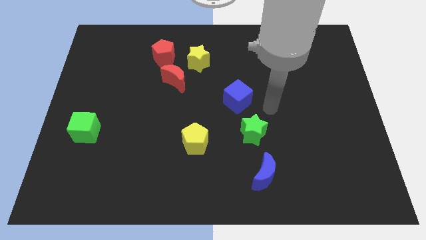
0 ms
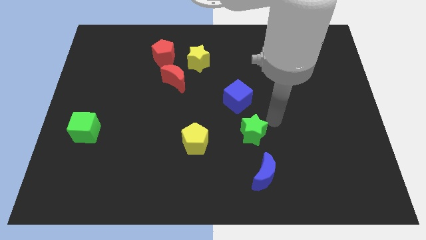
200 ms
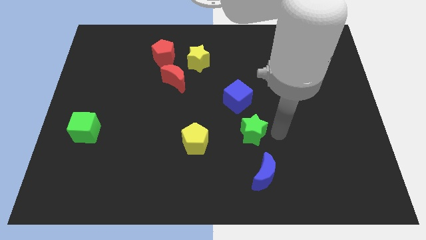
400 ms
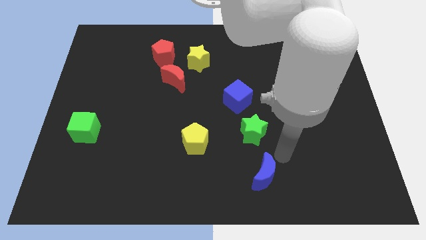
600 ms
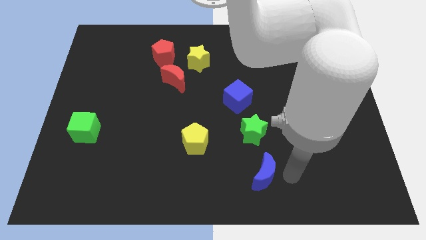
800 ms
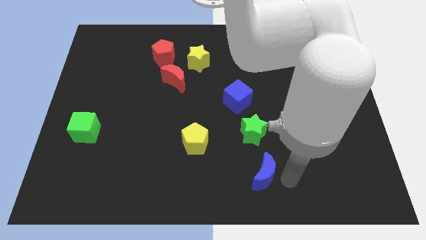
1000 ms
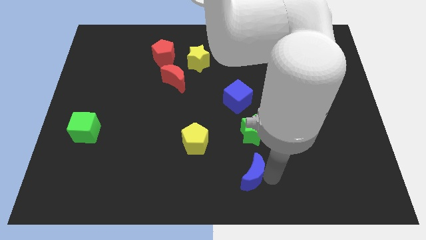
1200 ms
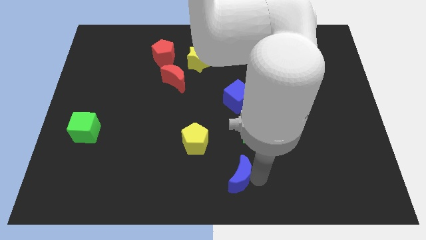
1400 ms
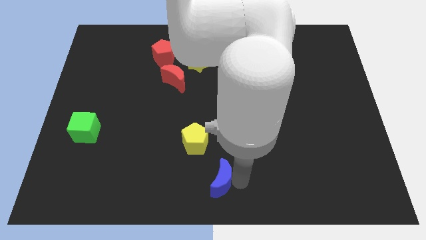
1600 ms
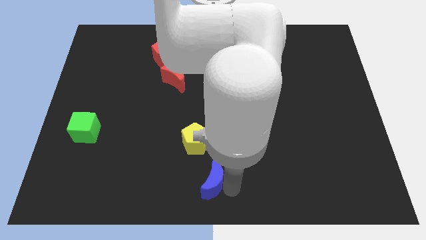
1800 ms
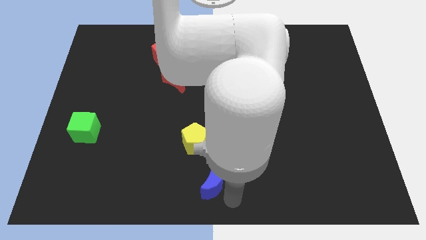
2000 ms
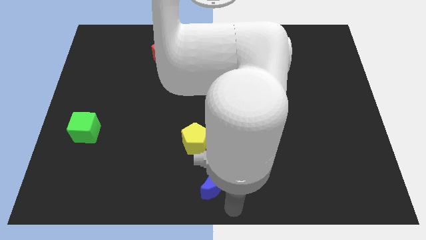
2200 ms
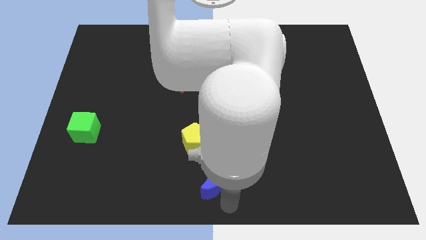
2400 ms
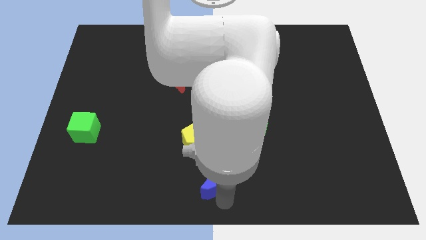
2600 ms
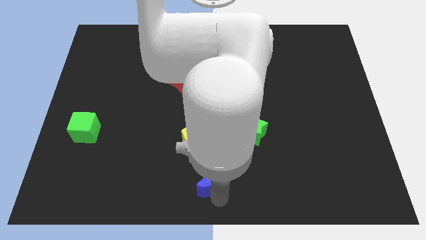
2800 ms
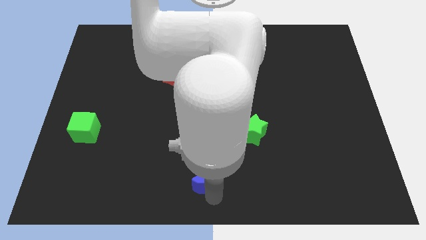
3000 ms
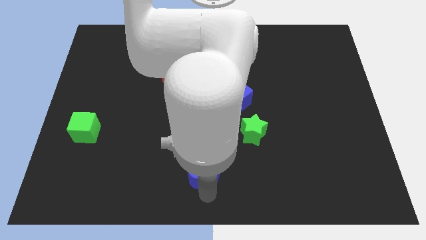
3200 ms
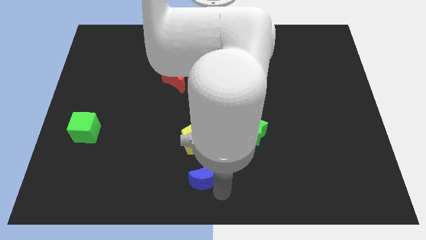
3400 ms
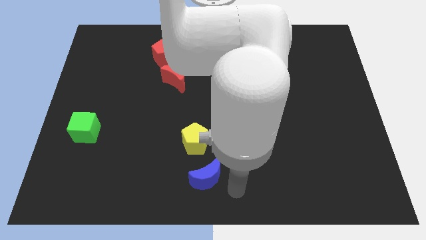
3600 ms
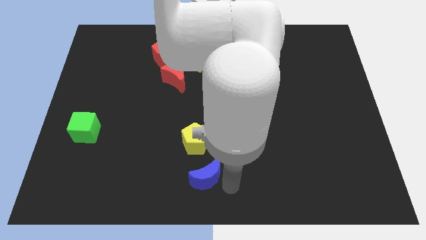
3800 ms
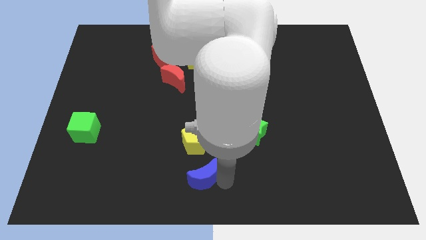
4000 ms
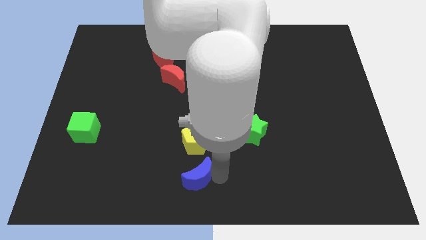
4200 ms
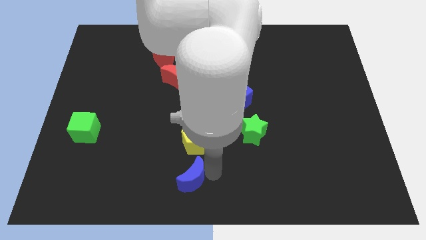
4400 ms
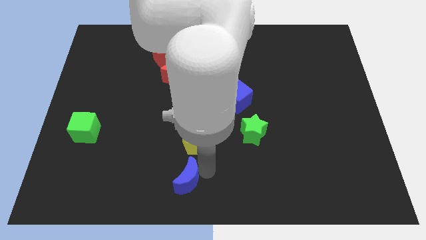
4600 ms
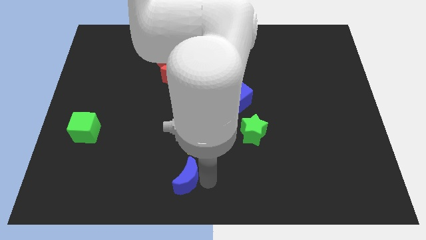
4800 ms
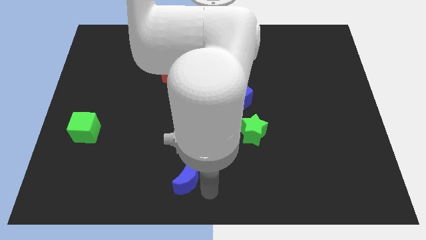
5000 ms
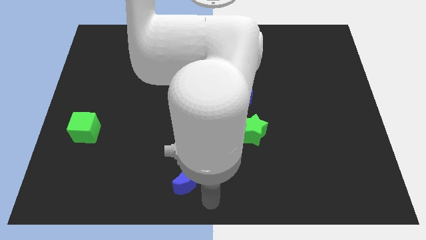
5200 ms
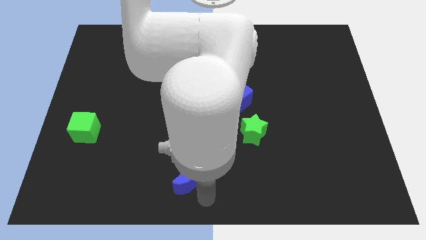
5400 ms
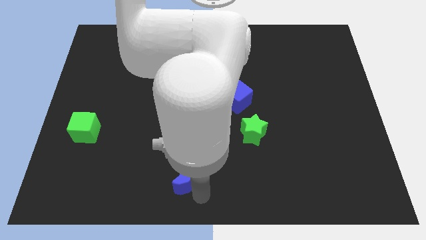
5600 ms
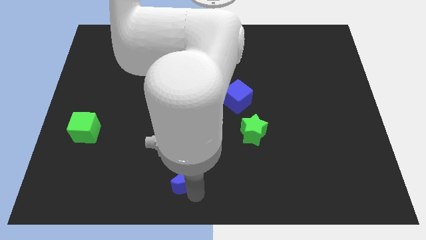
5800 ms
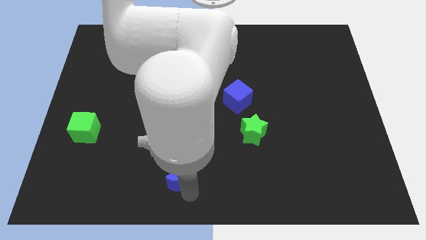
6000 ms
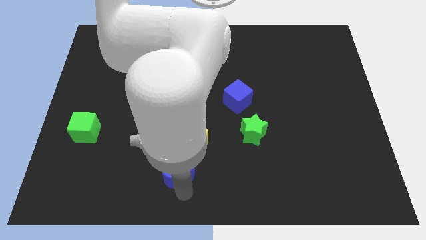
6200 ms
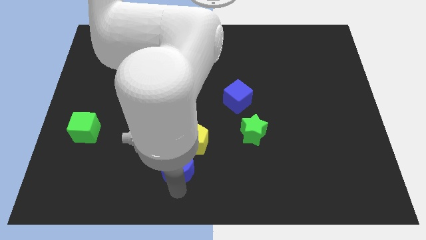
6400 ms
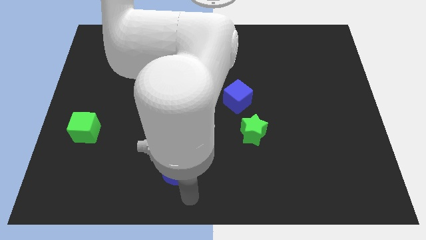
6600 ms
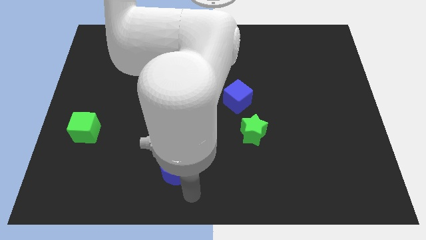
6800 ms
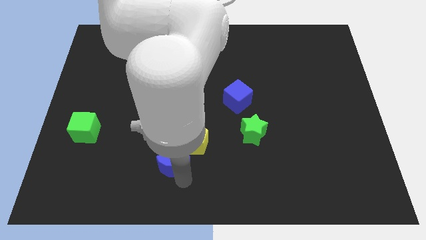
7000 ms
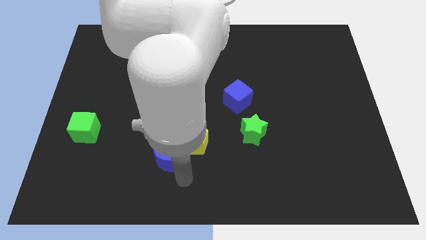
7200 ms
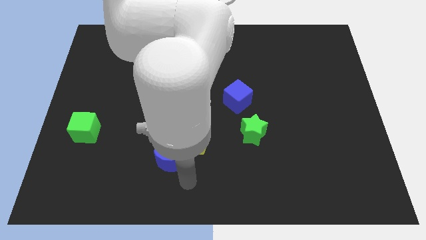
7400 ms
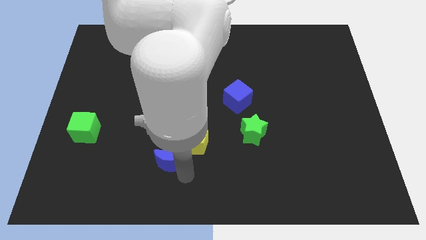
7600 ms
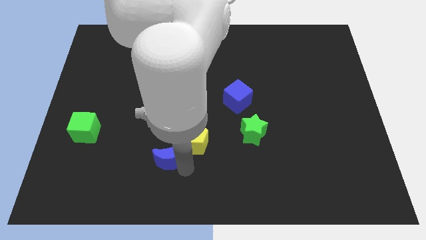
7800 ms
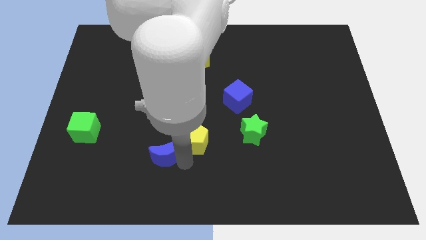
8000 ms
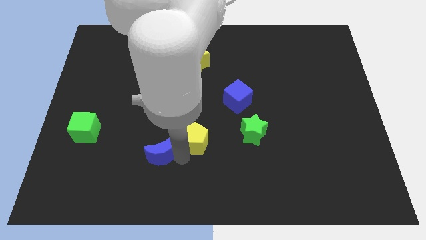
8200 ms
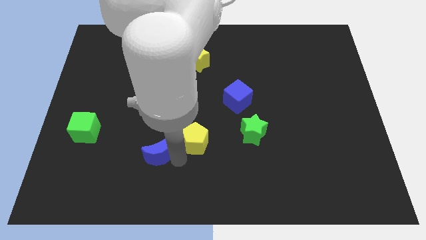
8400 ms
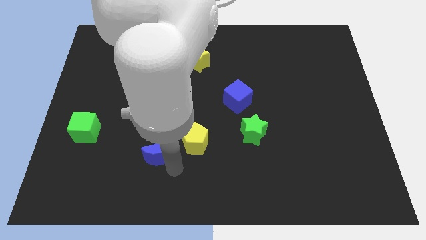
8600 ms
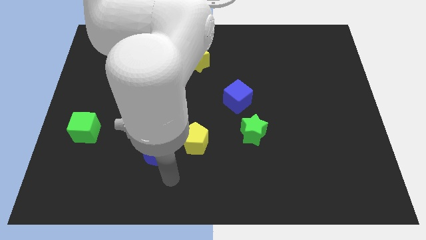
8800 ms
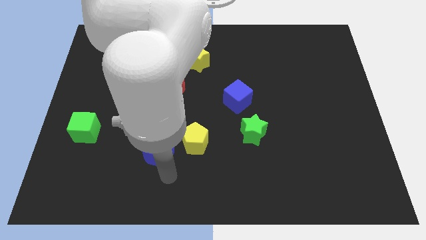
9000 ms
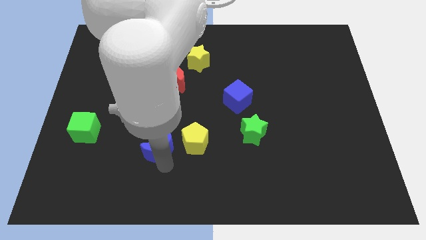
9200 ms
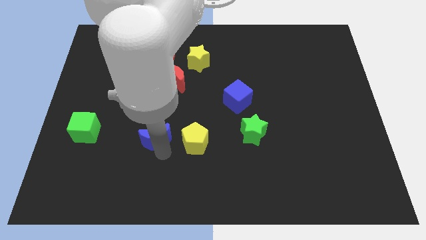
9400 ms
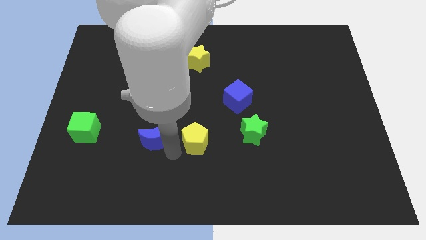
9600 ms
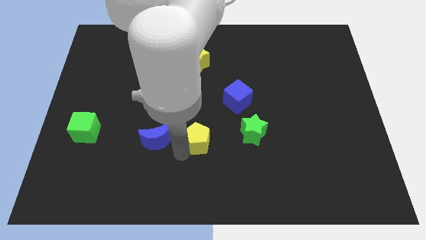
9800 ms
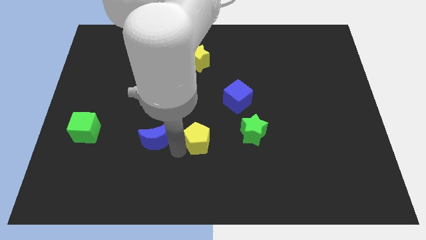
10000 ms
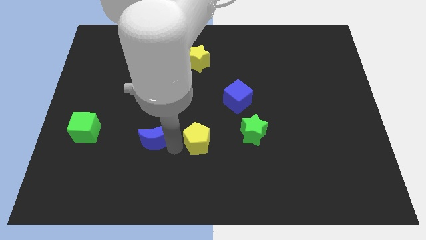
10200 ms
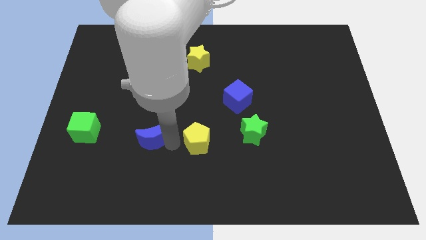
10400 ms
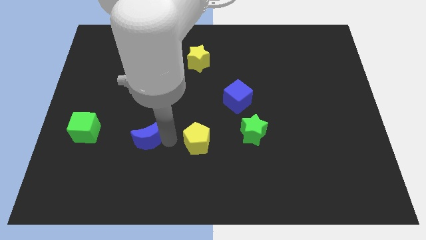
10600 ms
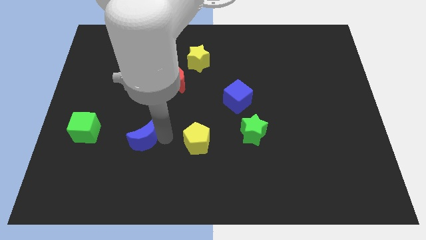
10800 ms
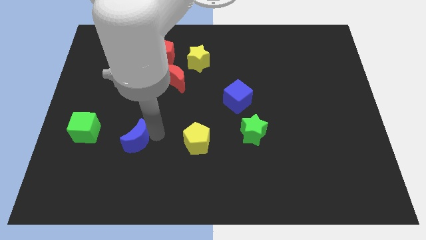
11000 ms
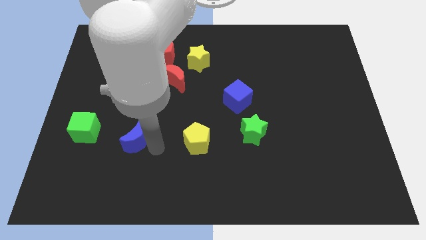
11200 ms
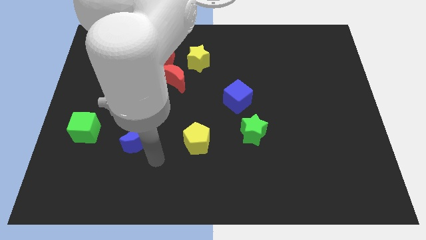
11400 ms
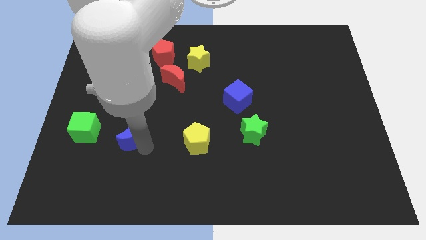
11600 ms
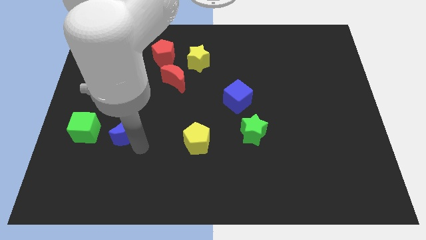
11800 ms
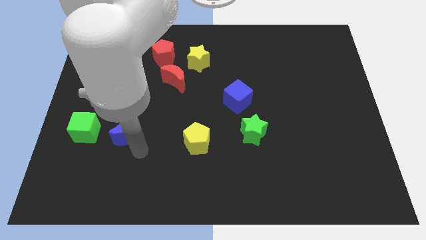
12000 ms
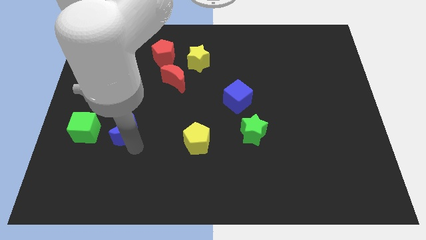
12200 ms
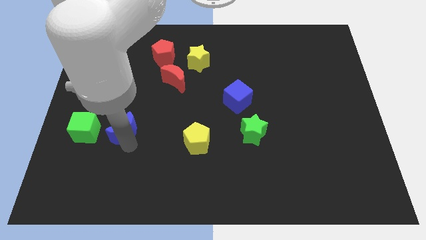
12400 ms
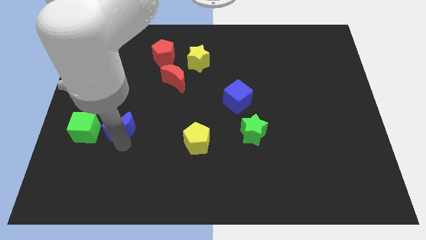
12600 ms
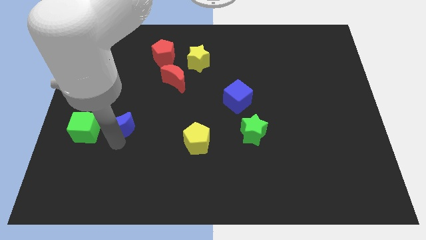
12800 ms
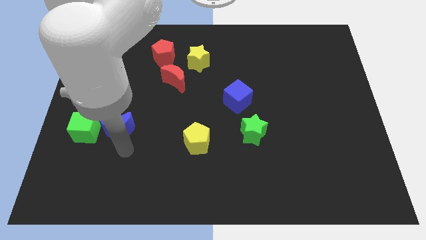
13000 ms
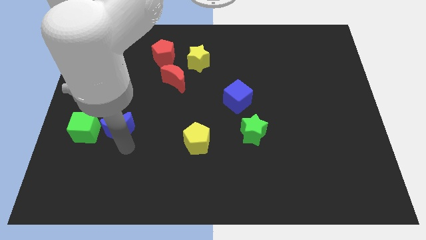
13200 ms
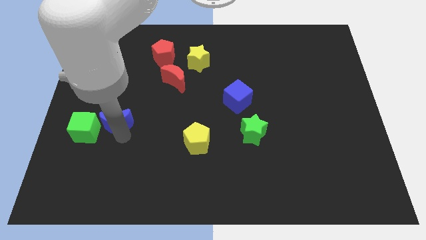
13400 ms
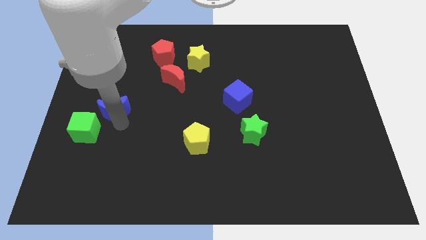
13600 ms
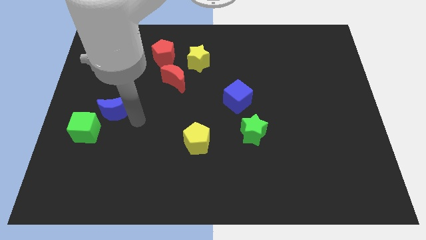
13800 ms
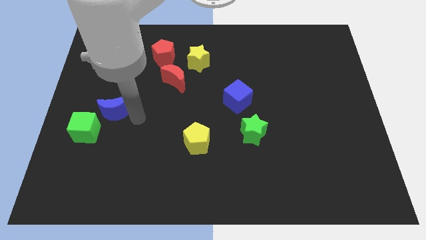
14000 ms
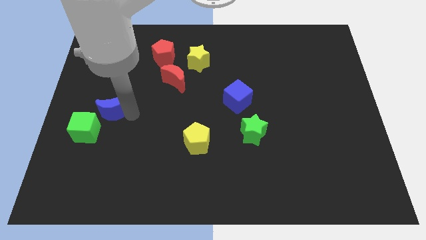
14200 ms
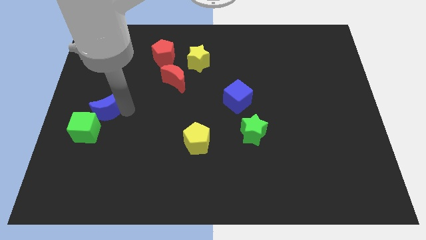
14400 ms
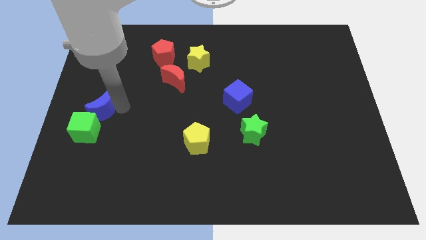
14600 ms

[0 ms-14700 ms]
slide the blue moon to the left side
